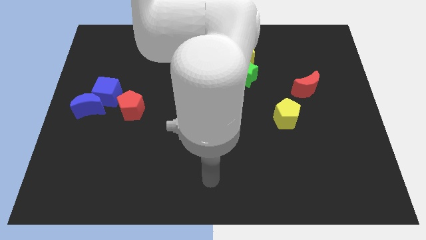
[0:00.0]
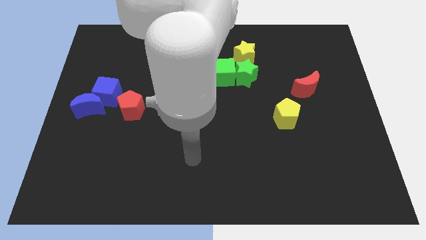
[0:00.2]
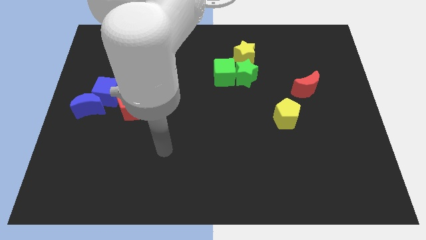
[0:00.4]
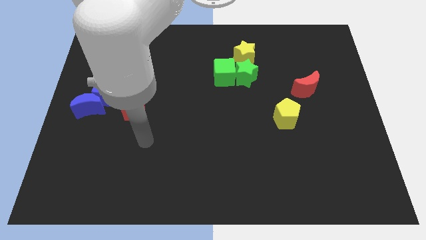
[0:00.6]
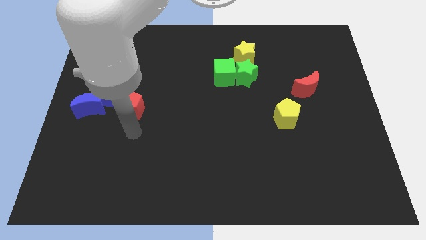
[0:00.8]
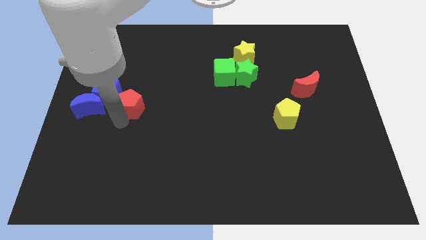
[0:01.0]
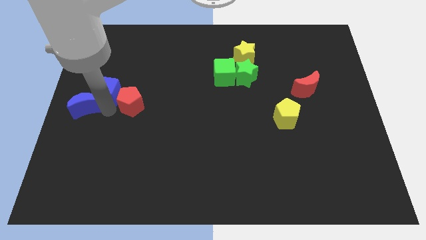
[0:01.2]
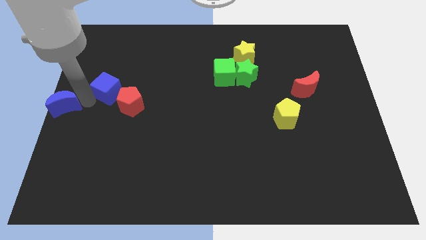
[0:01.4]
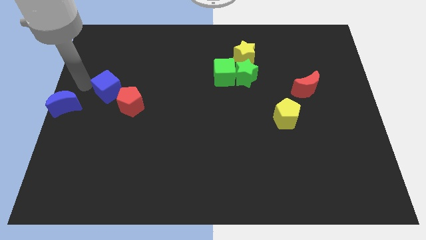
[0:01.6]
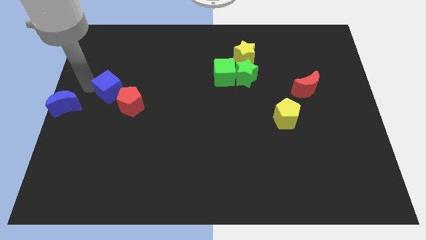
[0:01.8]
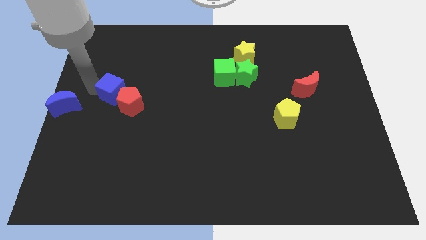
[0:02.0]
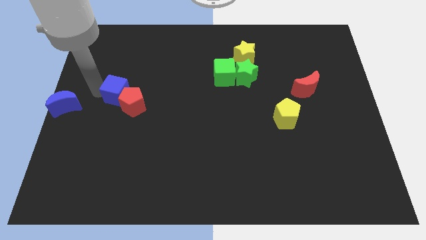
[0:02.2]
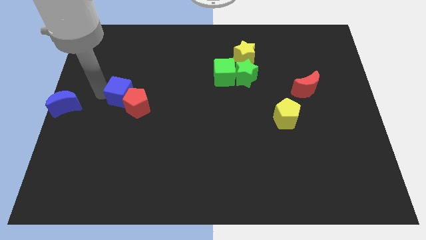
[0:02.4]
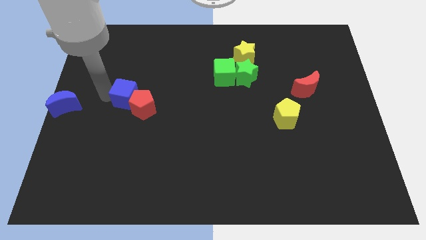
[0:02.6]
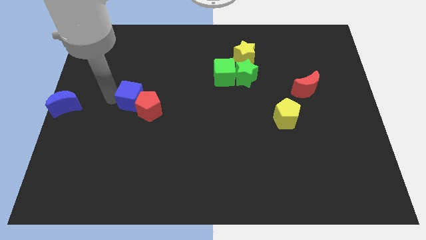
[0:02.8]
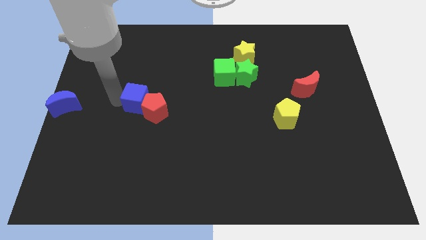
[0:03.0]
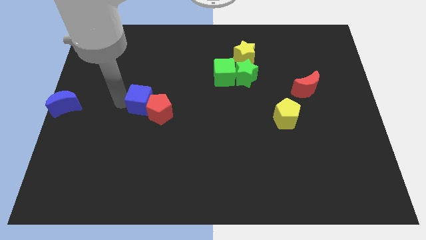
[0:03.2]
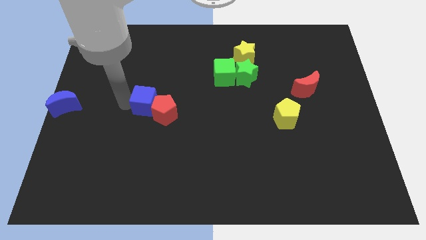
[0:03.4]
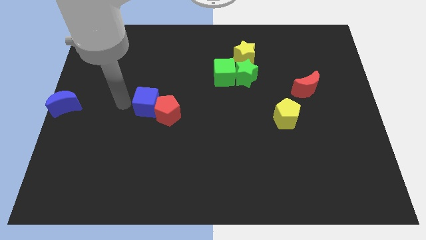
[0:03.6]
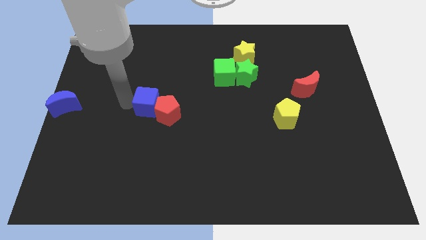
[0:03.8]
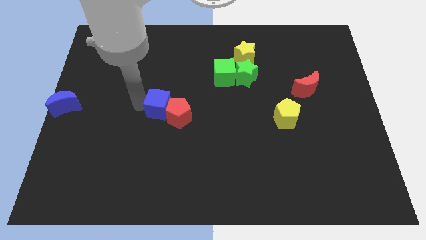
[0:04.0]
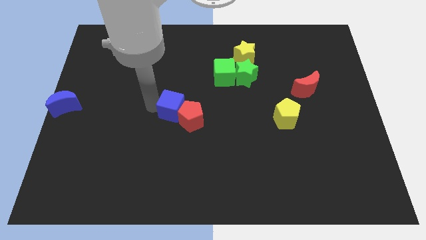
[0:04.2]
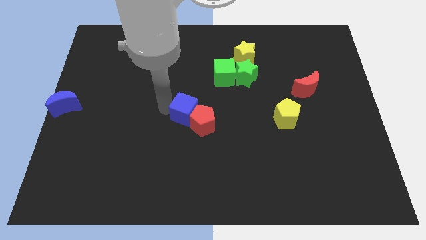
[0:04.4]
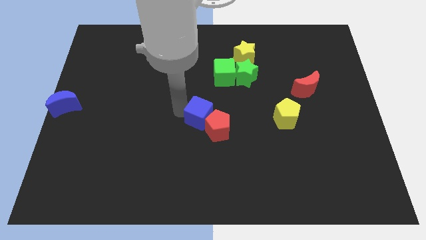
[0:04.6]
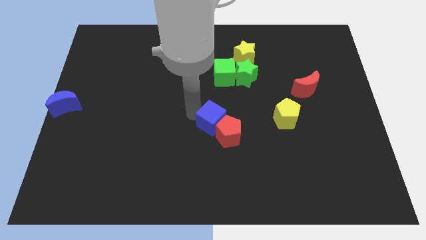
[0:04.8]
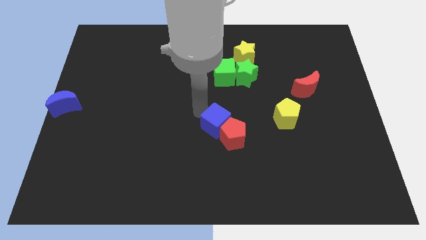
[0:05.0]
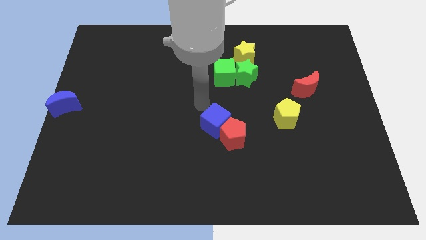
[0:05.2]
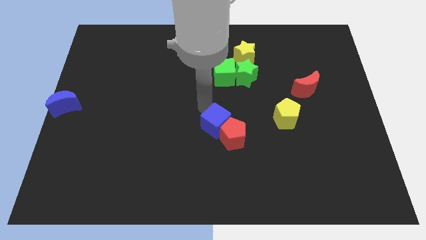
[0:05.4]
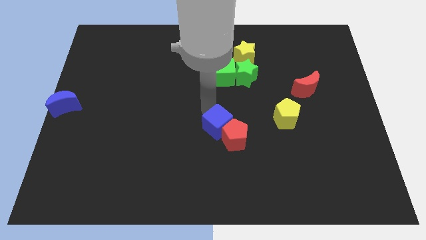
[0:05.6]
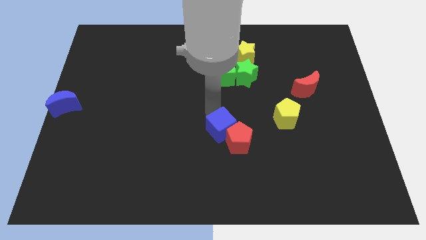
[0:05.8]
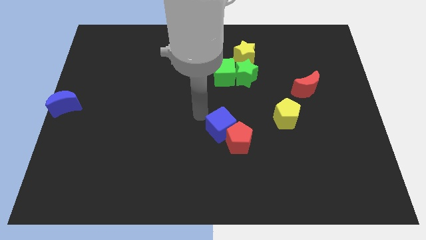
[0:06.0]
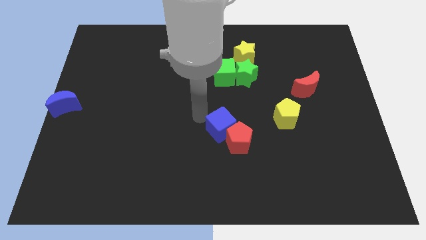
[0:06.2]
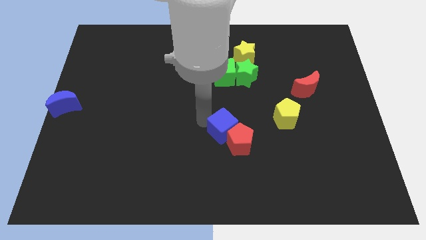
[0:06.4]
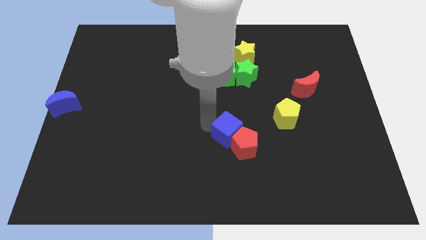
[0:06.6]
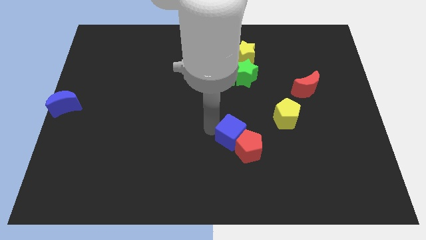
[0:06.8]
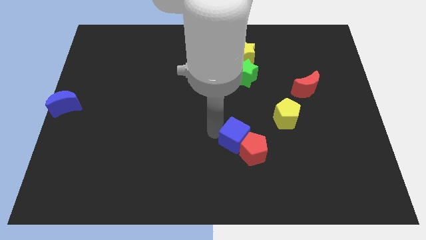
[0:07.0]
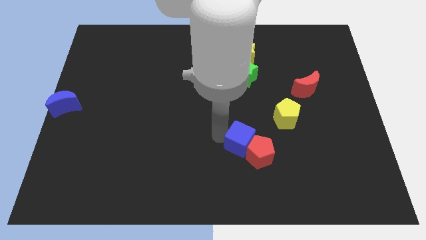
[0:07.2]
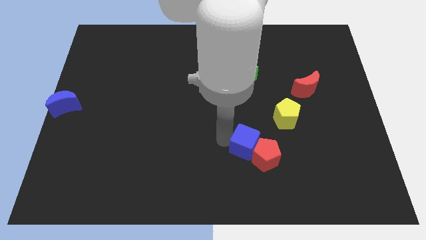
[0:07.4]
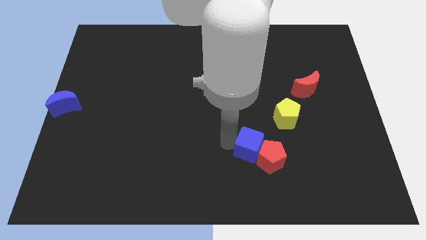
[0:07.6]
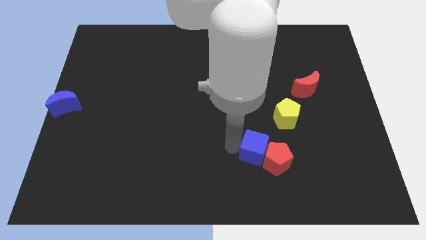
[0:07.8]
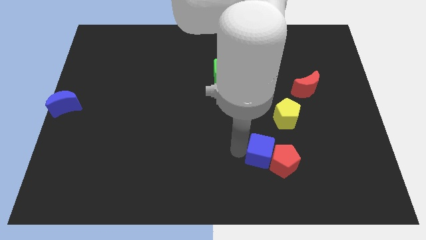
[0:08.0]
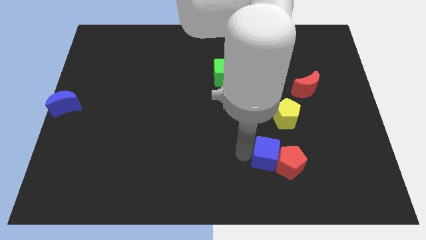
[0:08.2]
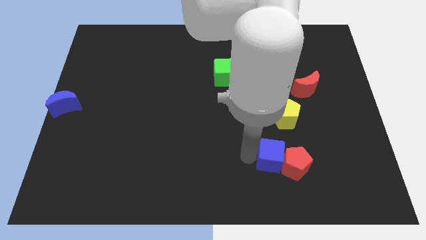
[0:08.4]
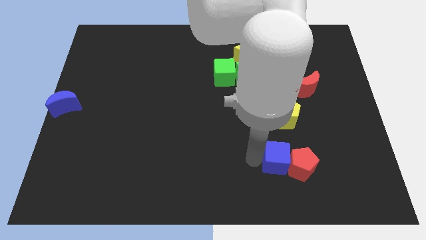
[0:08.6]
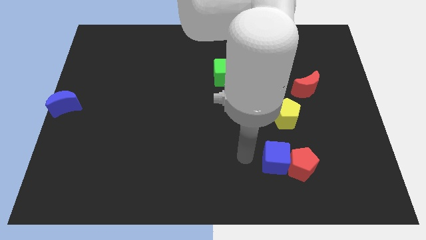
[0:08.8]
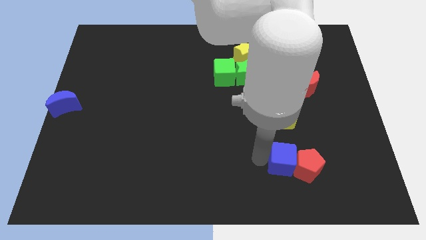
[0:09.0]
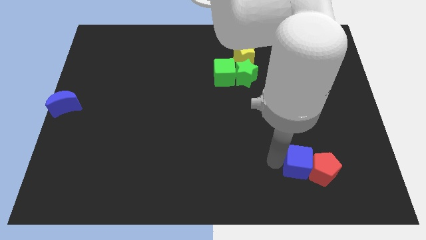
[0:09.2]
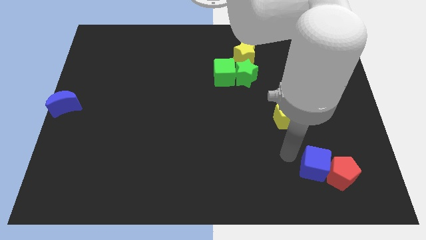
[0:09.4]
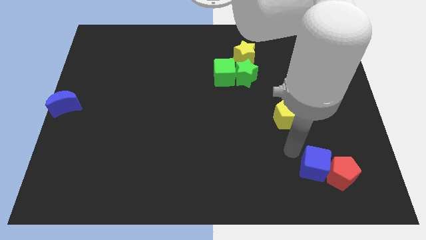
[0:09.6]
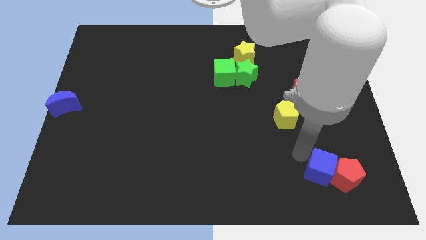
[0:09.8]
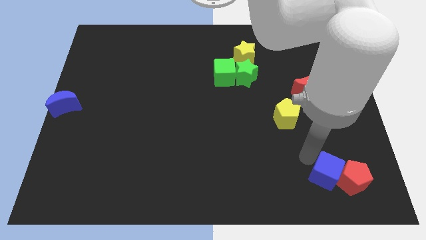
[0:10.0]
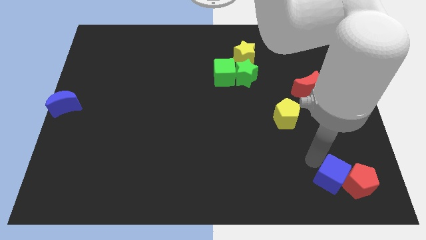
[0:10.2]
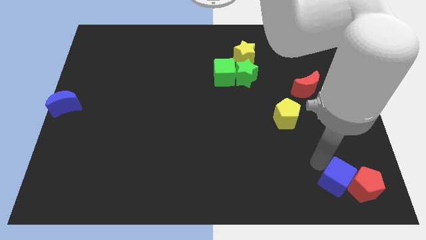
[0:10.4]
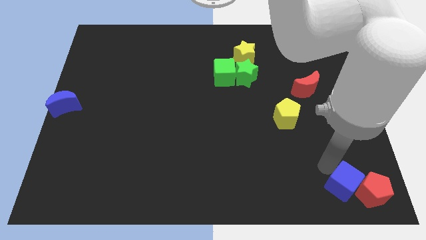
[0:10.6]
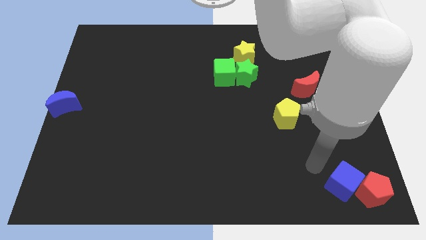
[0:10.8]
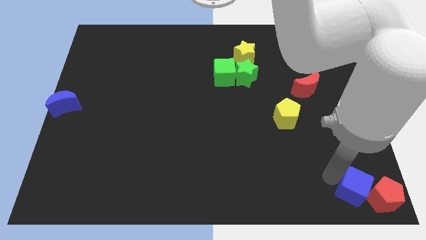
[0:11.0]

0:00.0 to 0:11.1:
push the blue cube to the bottom right

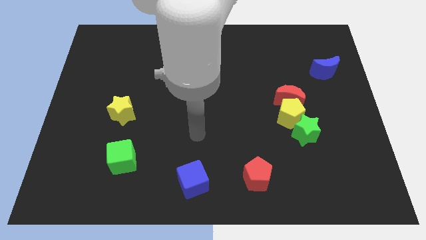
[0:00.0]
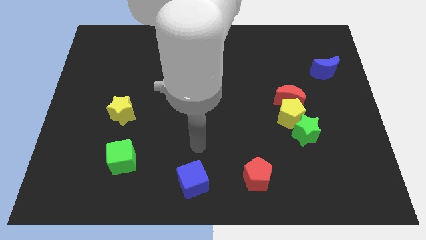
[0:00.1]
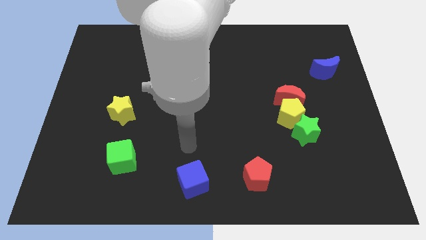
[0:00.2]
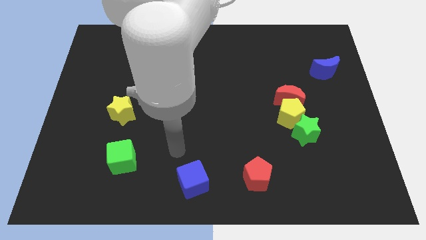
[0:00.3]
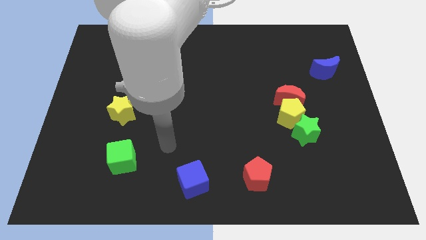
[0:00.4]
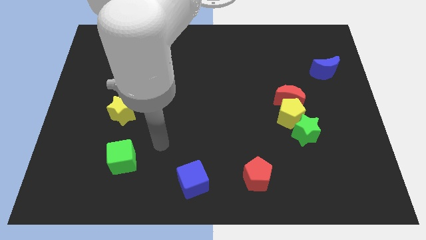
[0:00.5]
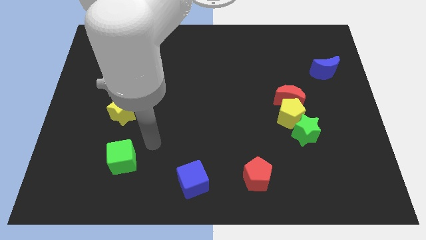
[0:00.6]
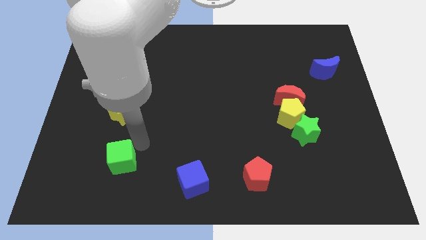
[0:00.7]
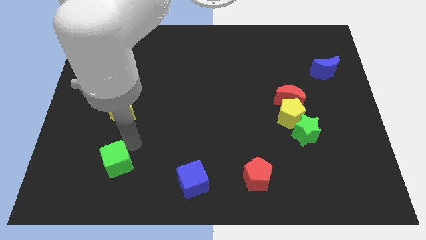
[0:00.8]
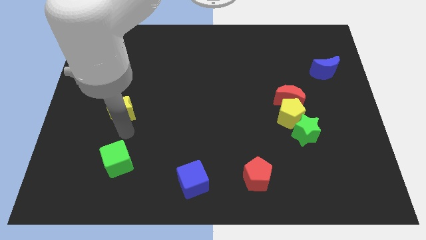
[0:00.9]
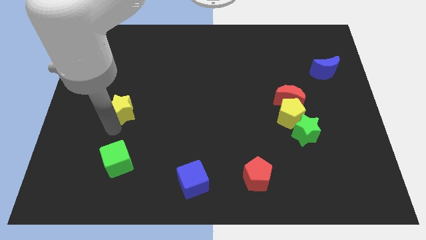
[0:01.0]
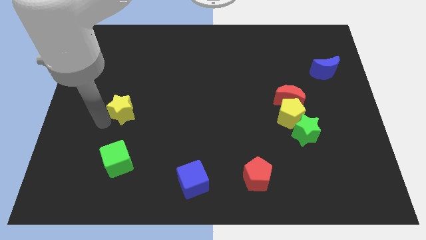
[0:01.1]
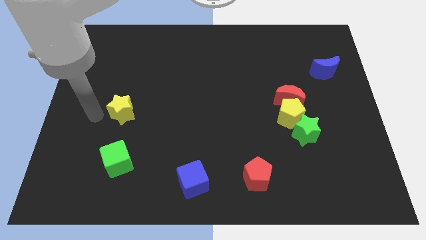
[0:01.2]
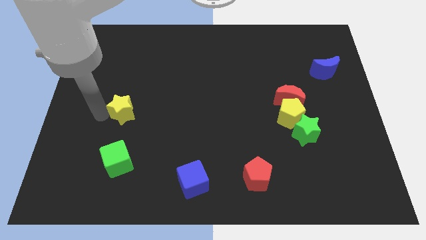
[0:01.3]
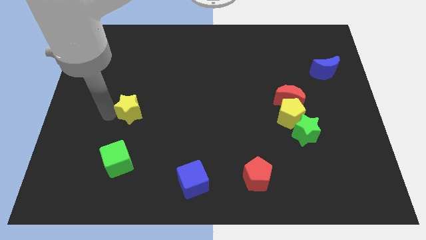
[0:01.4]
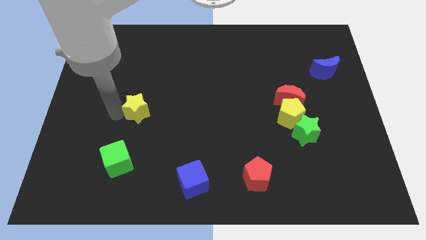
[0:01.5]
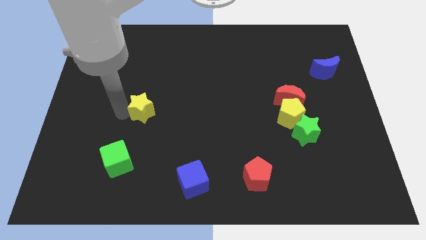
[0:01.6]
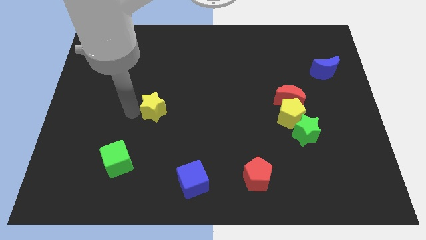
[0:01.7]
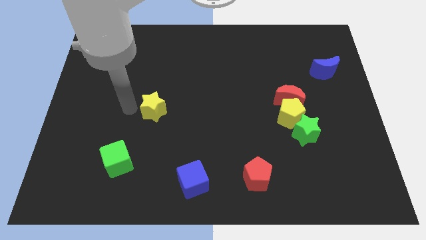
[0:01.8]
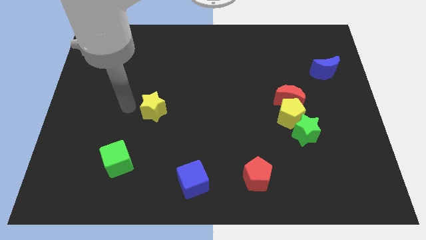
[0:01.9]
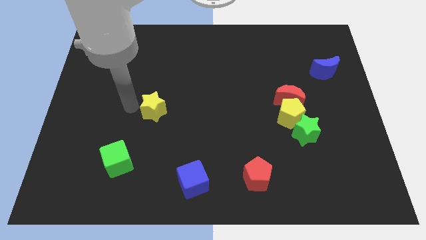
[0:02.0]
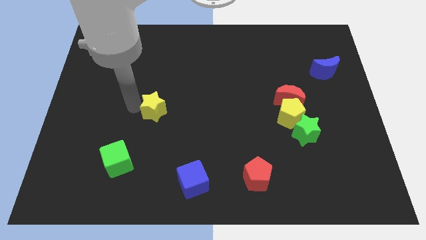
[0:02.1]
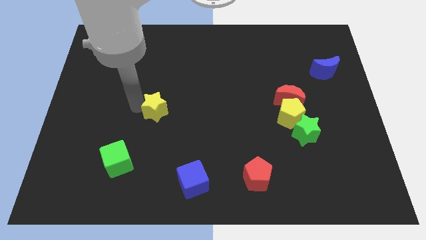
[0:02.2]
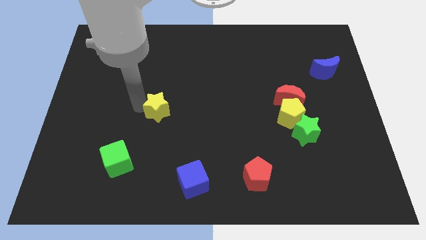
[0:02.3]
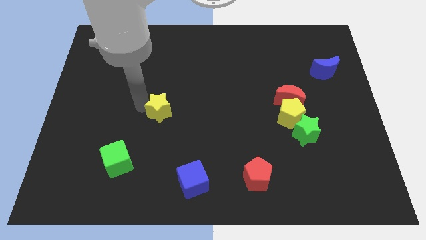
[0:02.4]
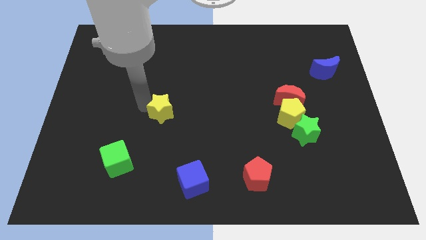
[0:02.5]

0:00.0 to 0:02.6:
move the yellow star to the center
